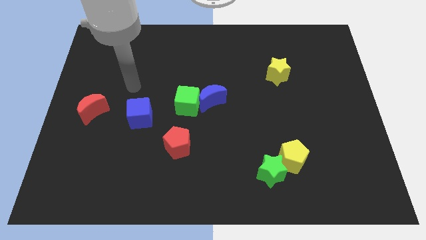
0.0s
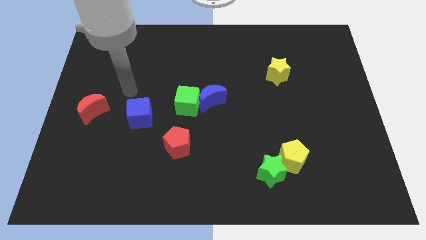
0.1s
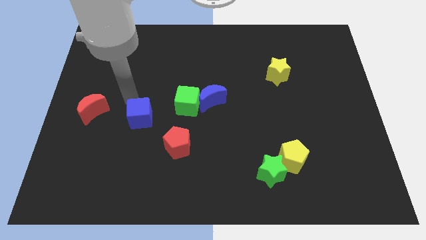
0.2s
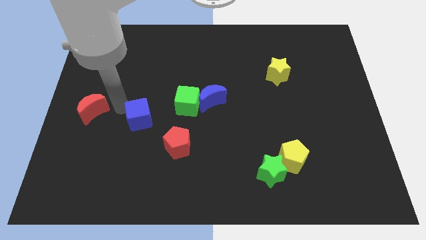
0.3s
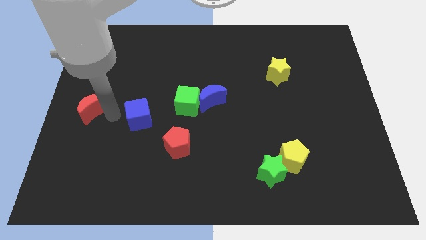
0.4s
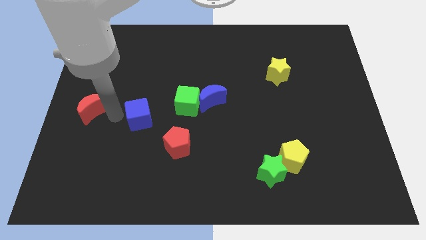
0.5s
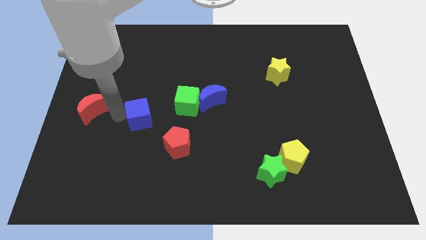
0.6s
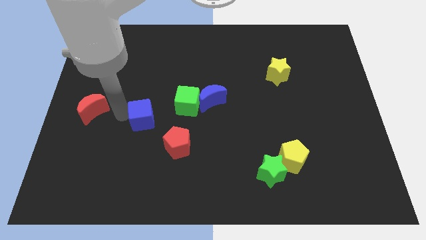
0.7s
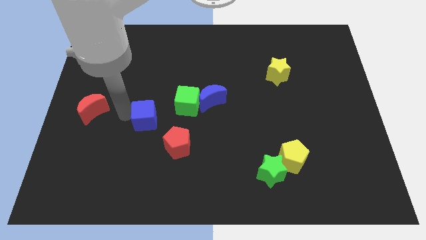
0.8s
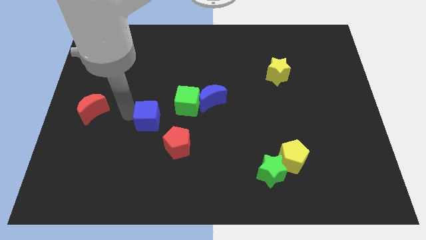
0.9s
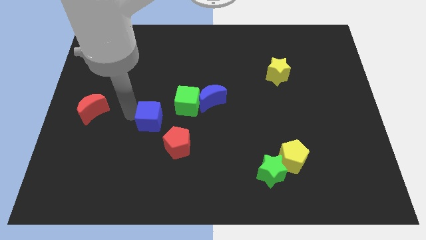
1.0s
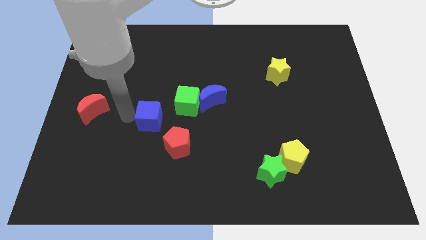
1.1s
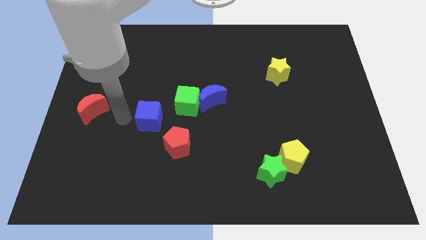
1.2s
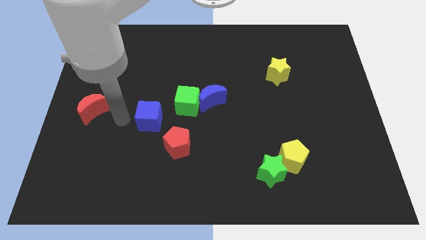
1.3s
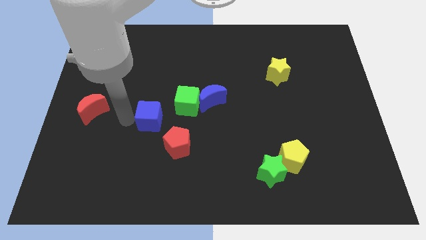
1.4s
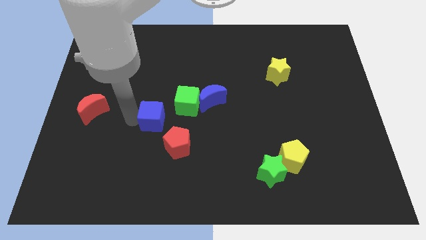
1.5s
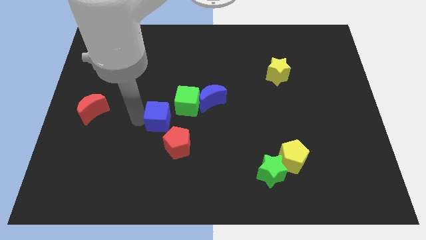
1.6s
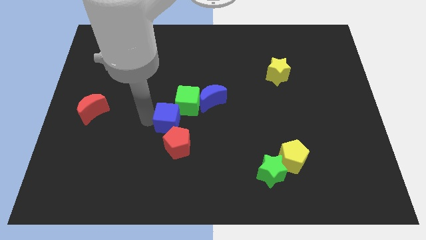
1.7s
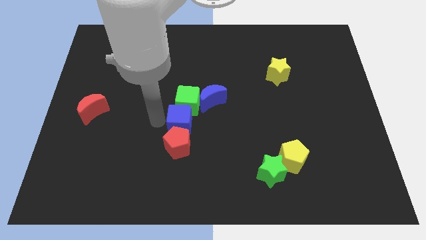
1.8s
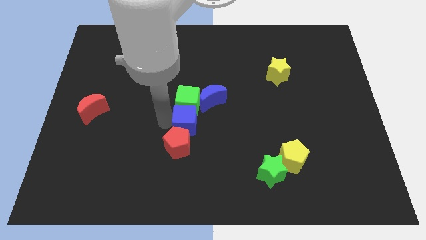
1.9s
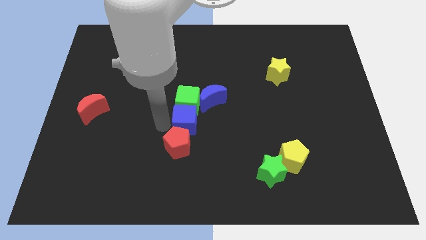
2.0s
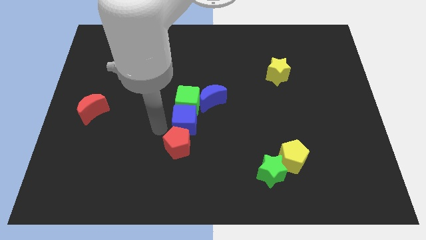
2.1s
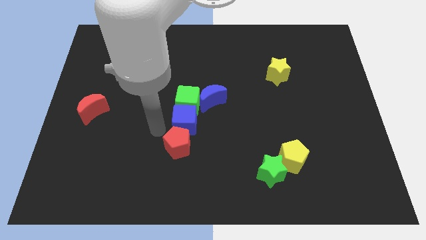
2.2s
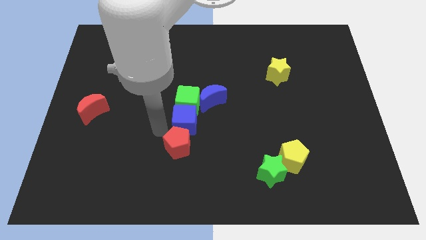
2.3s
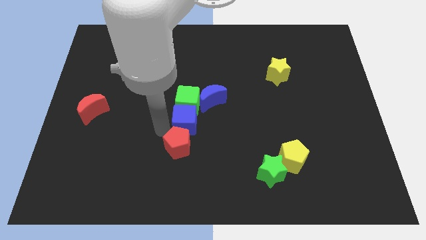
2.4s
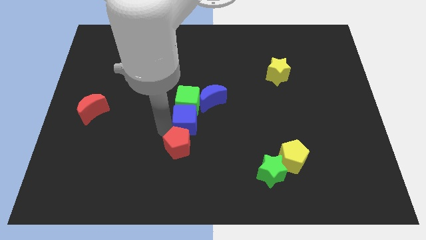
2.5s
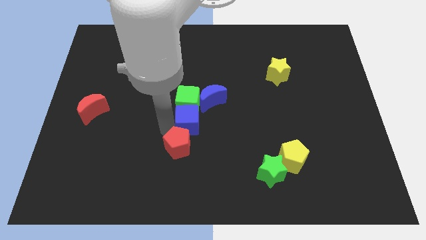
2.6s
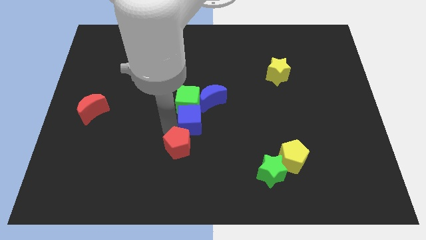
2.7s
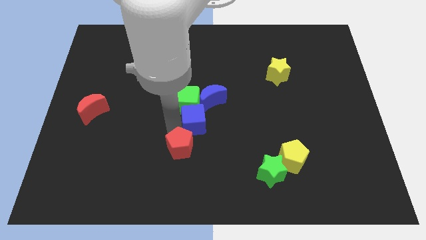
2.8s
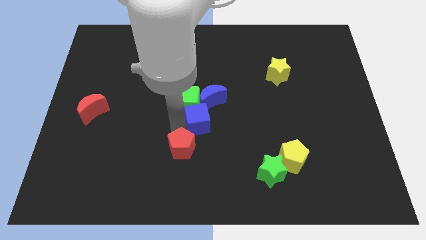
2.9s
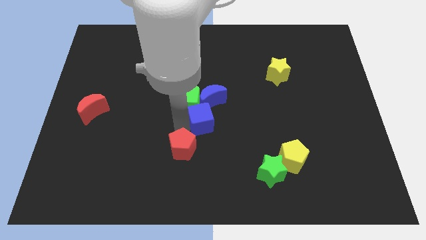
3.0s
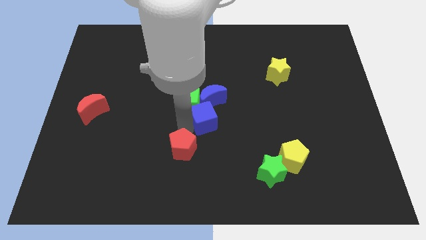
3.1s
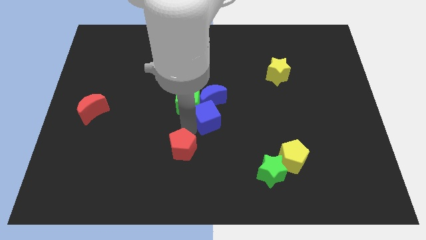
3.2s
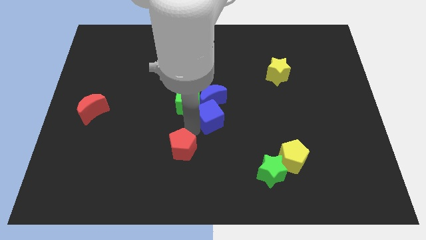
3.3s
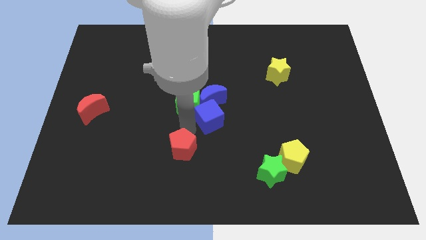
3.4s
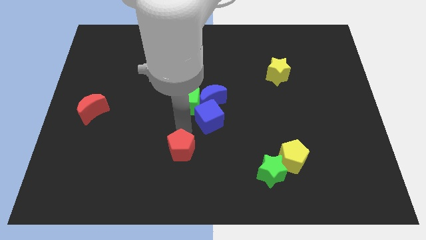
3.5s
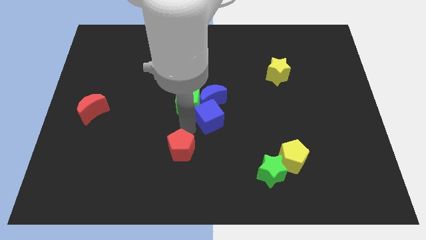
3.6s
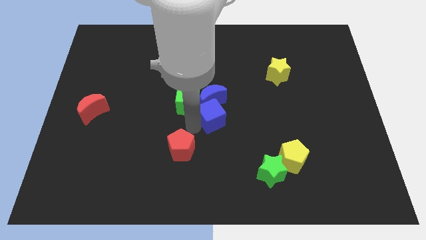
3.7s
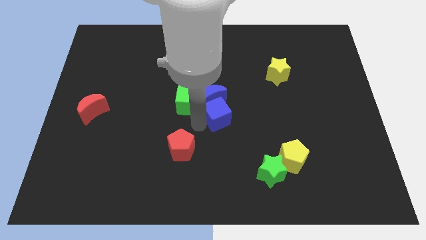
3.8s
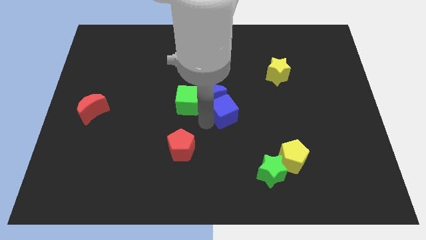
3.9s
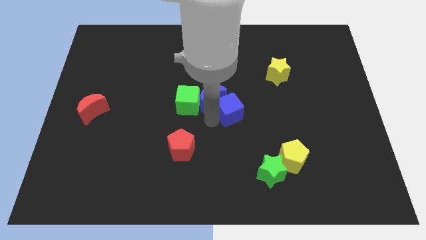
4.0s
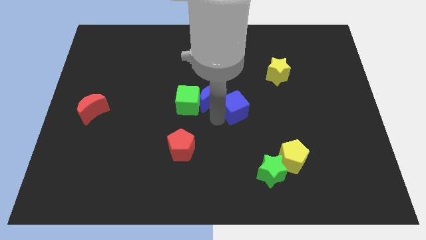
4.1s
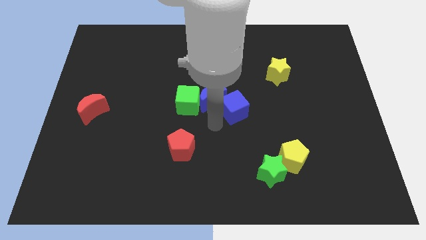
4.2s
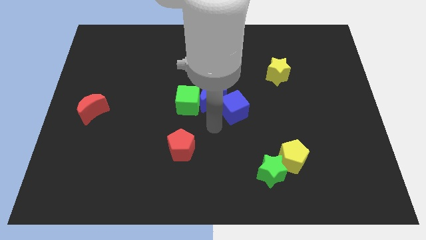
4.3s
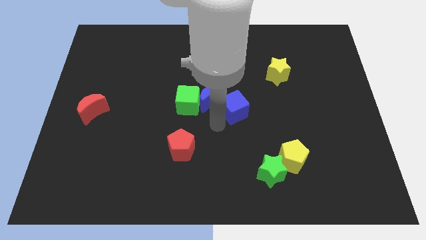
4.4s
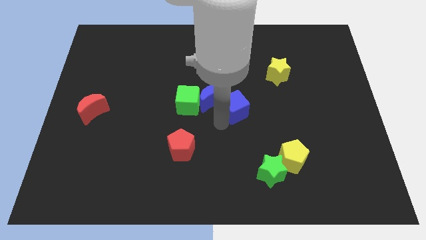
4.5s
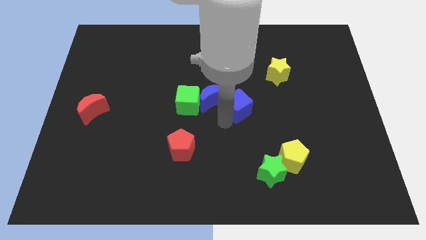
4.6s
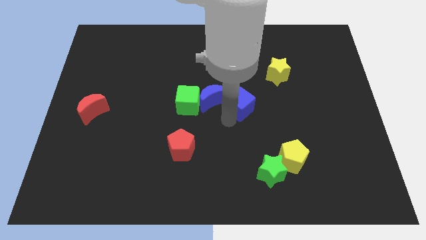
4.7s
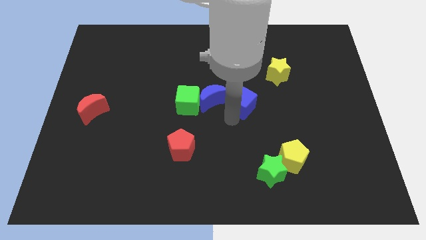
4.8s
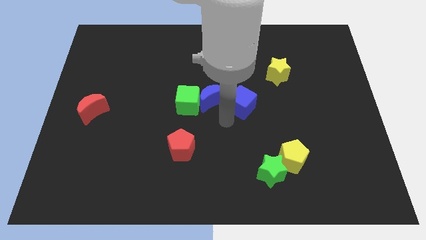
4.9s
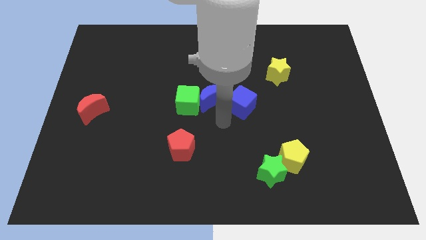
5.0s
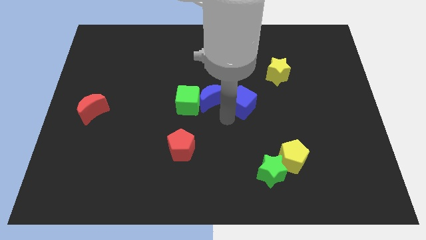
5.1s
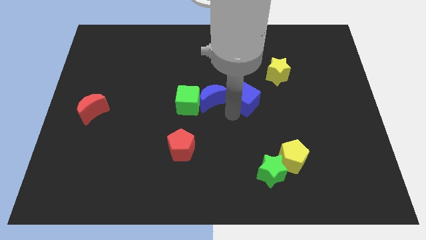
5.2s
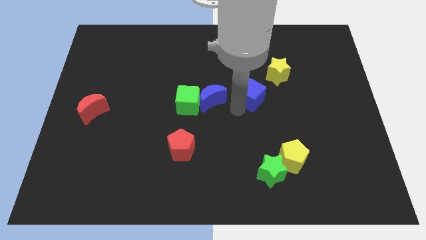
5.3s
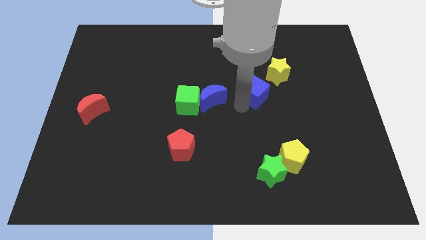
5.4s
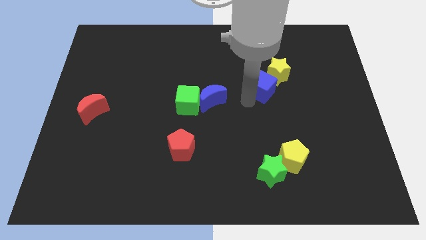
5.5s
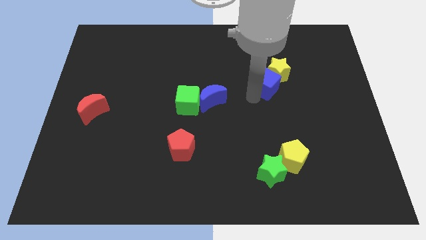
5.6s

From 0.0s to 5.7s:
move the blue cube towards the yellow star

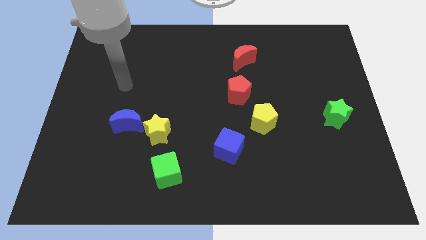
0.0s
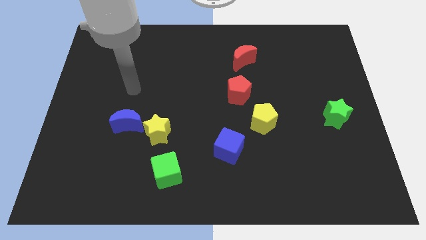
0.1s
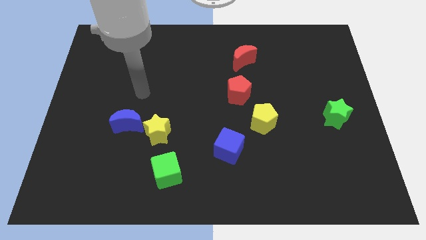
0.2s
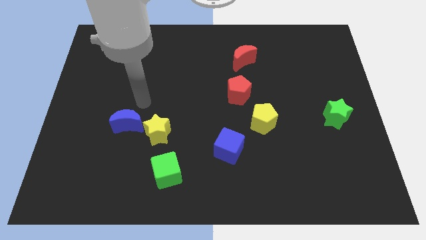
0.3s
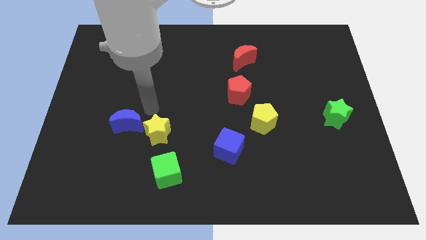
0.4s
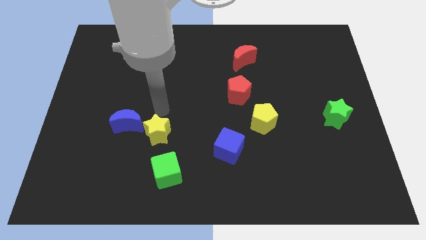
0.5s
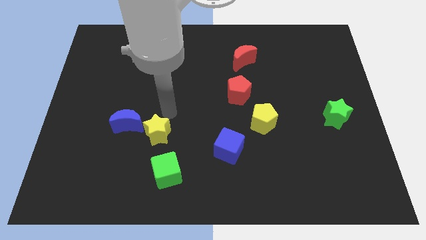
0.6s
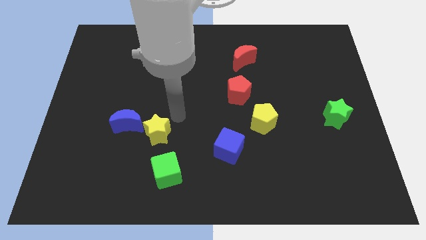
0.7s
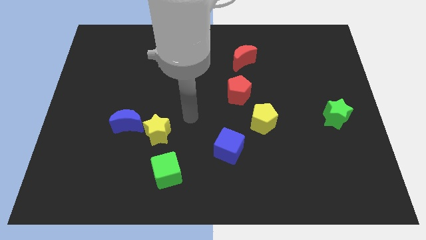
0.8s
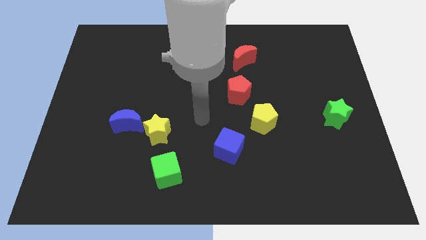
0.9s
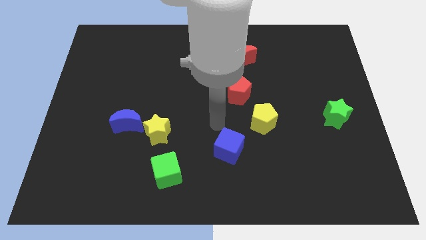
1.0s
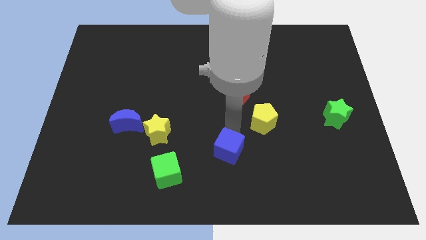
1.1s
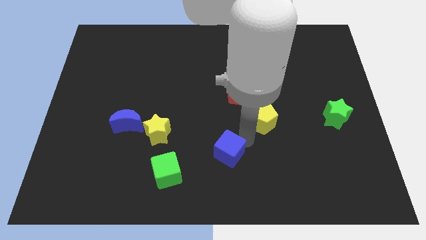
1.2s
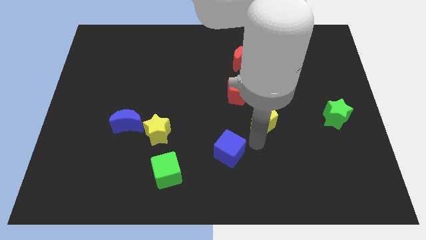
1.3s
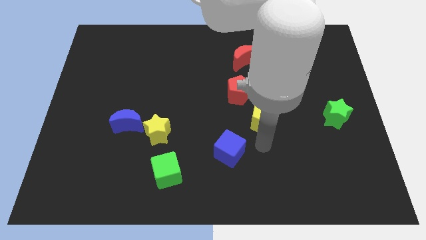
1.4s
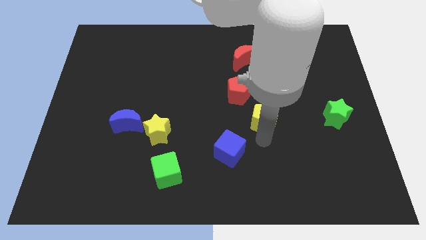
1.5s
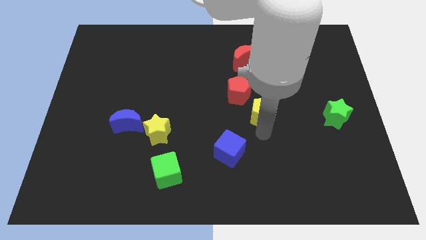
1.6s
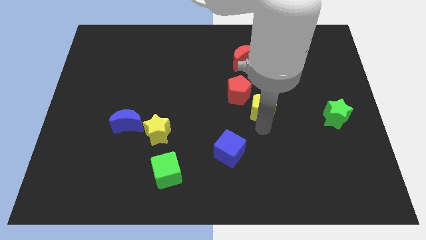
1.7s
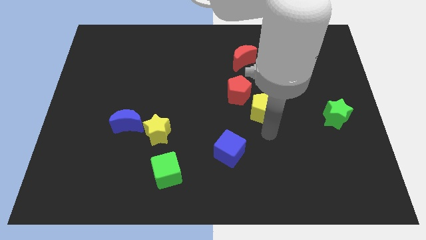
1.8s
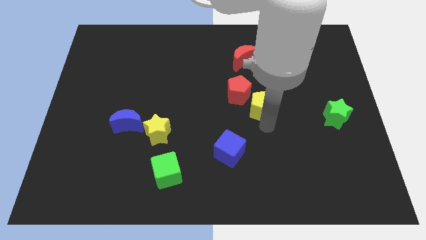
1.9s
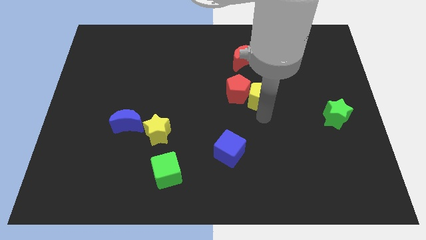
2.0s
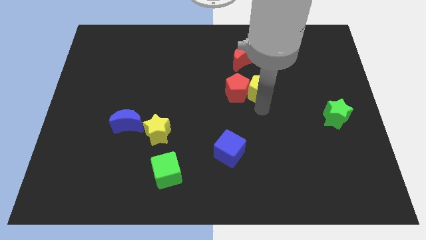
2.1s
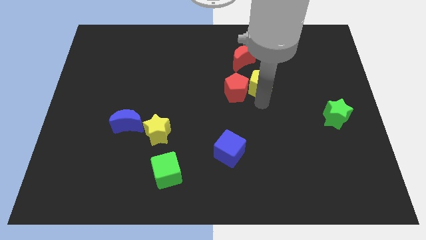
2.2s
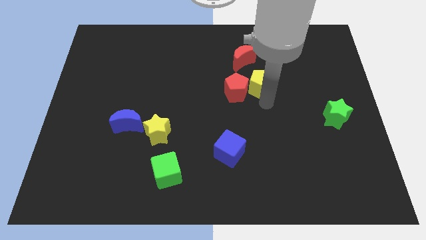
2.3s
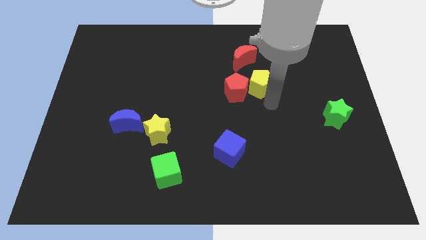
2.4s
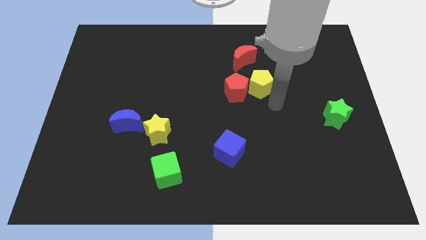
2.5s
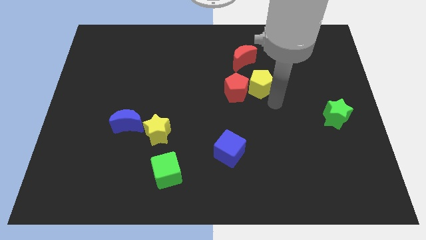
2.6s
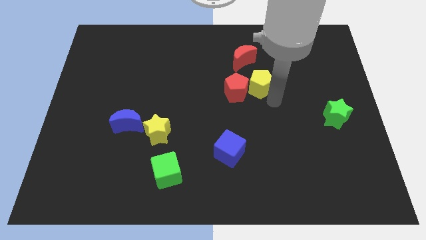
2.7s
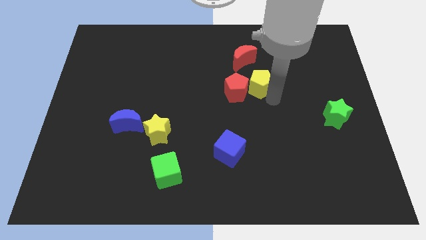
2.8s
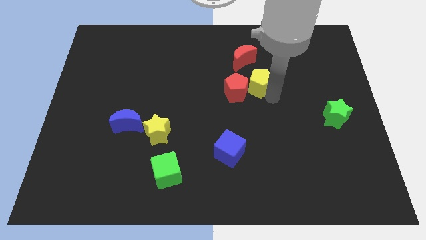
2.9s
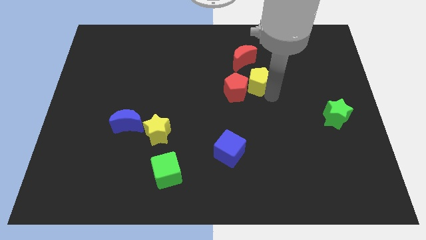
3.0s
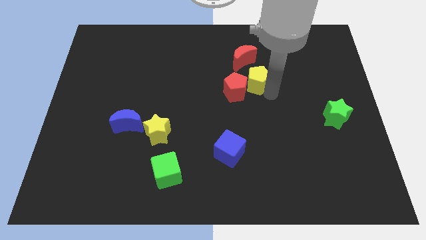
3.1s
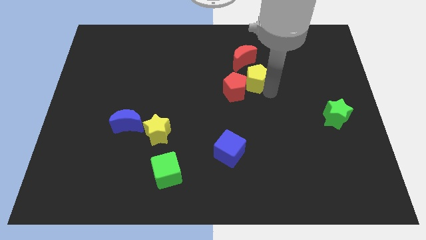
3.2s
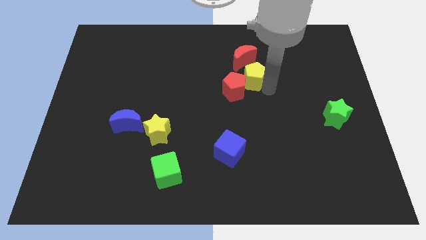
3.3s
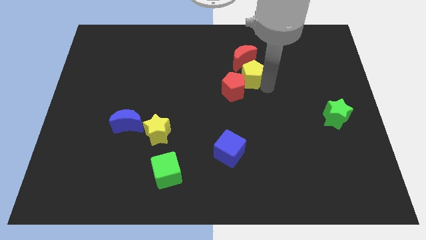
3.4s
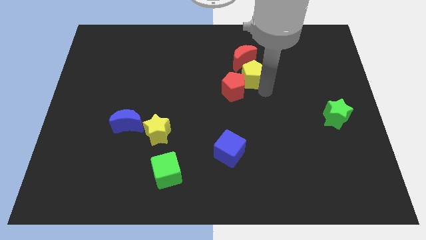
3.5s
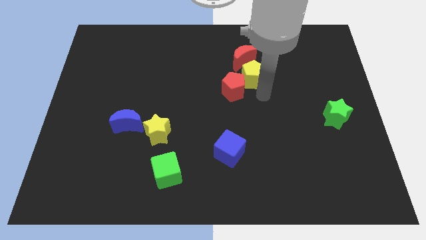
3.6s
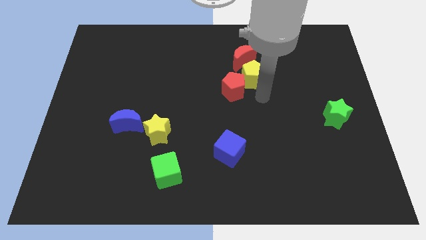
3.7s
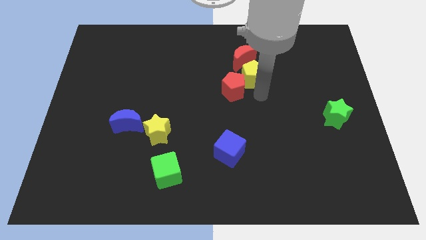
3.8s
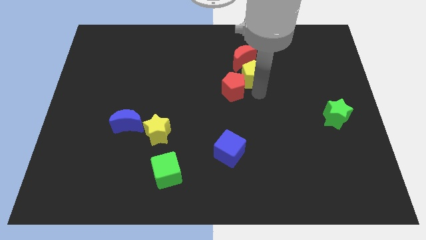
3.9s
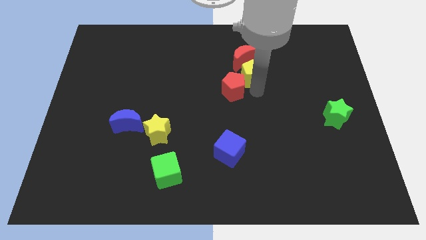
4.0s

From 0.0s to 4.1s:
slide the yellow pentagon next to the red moon
